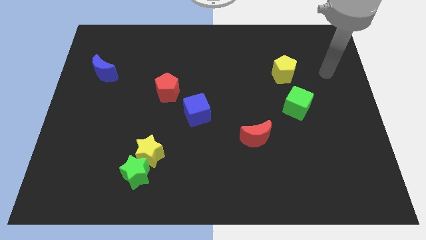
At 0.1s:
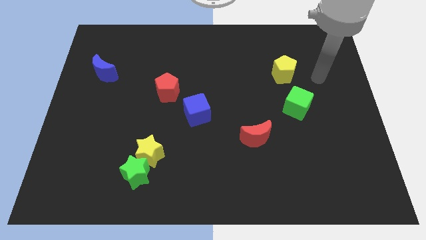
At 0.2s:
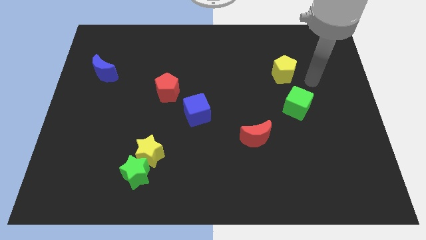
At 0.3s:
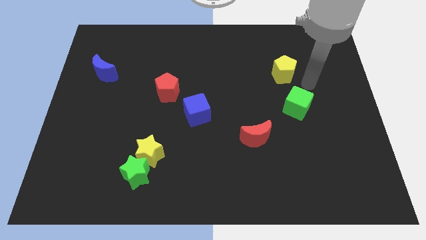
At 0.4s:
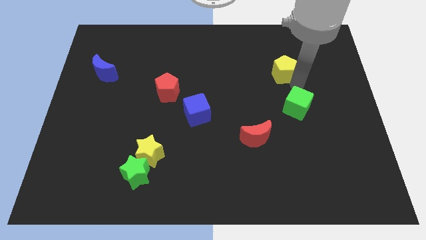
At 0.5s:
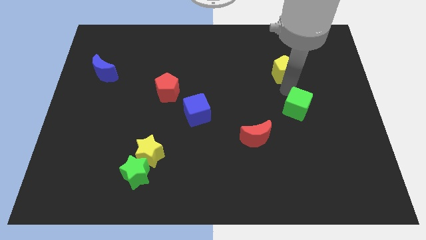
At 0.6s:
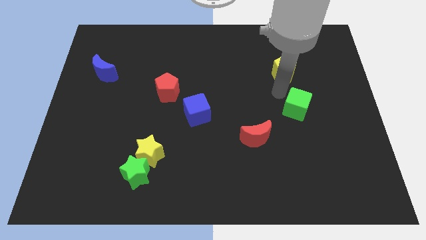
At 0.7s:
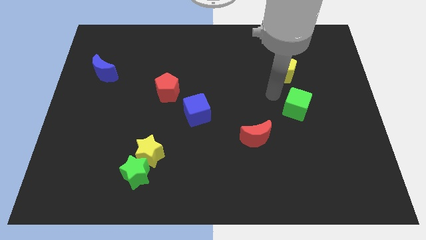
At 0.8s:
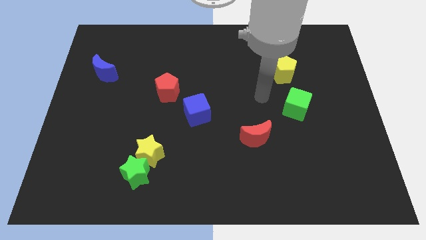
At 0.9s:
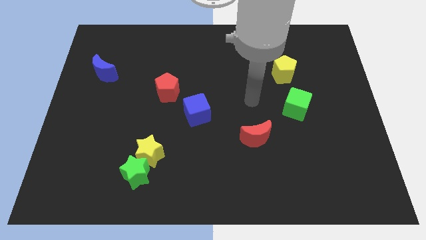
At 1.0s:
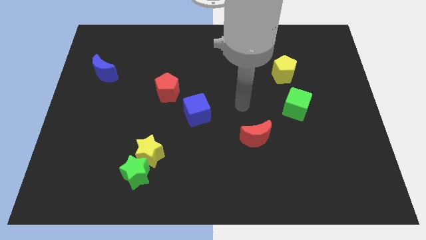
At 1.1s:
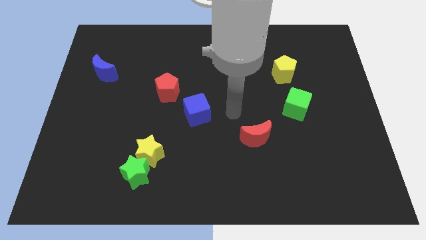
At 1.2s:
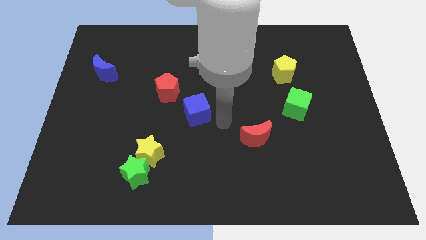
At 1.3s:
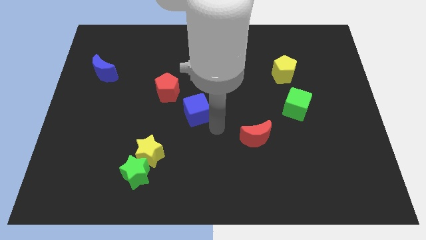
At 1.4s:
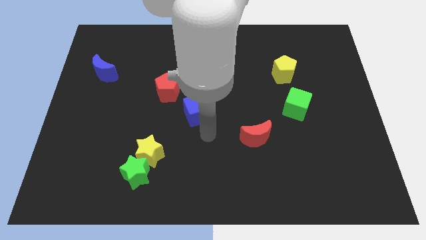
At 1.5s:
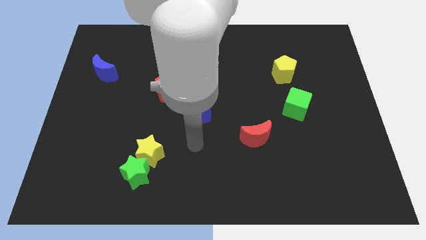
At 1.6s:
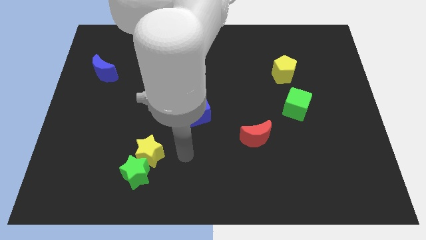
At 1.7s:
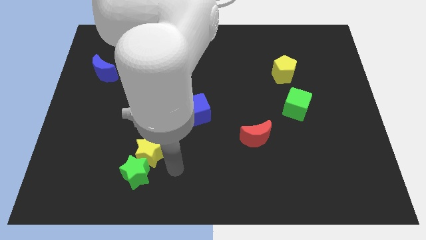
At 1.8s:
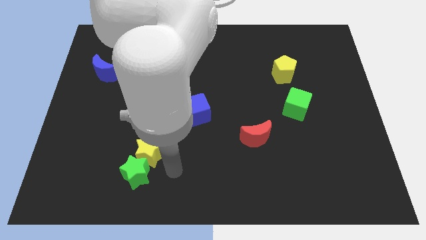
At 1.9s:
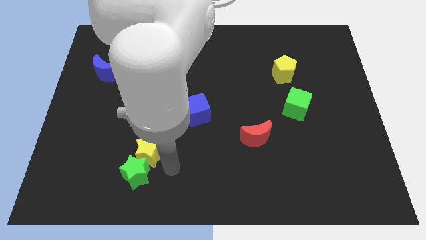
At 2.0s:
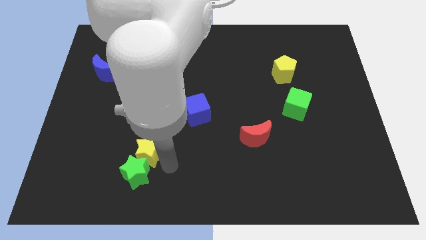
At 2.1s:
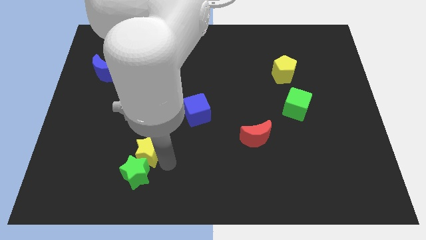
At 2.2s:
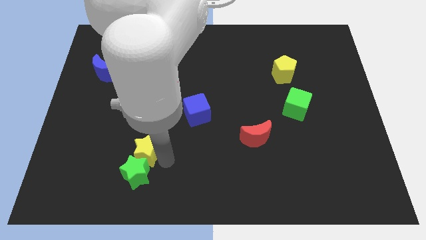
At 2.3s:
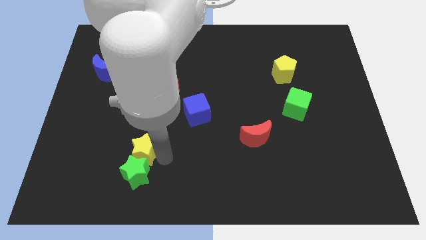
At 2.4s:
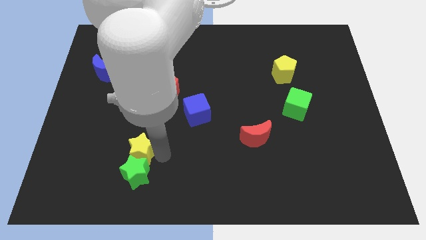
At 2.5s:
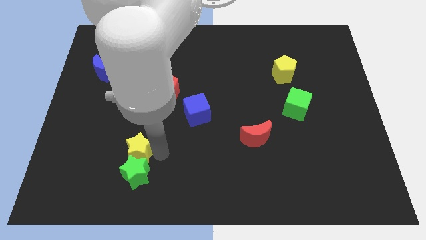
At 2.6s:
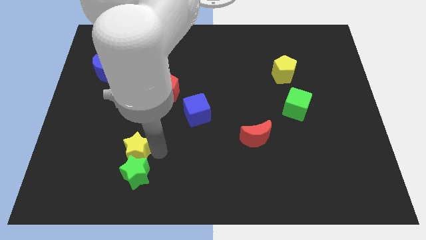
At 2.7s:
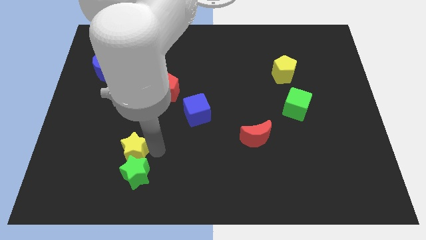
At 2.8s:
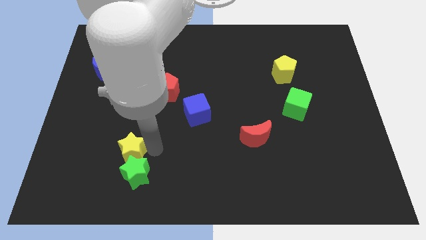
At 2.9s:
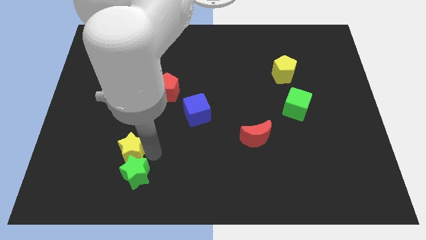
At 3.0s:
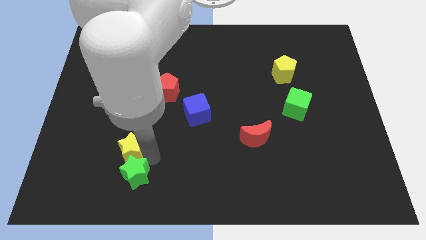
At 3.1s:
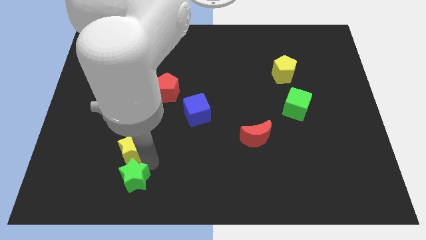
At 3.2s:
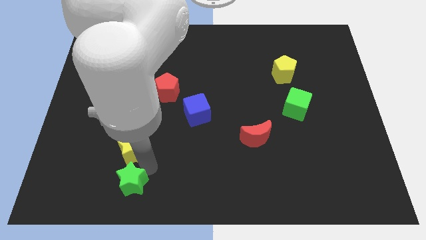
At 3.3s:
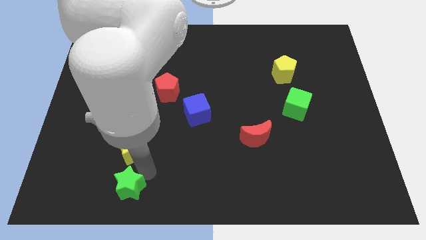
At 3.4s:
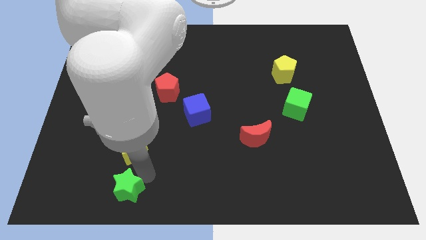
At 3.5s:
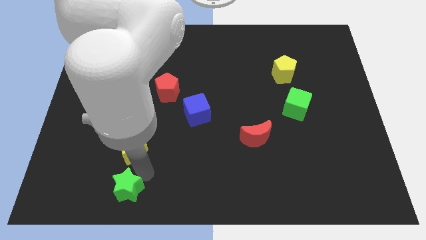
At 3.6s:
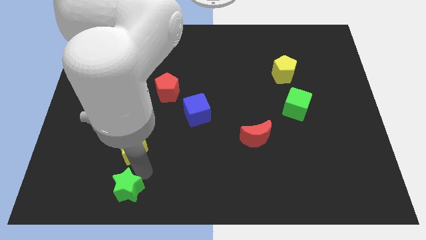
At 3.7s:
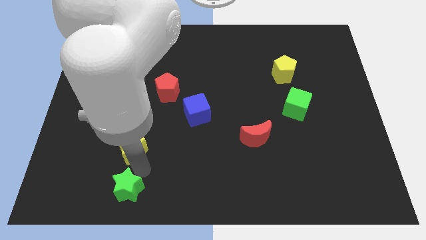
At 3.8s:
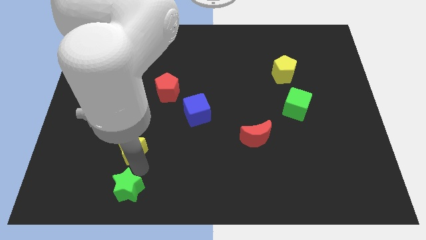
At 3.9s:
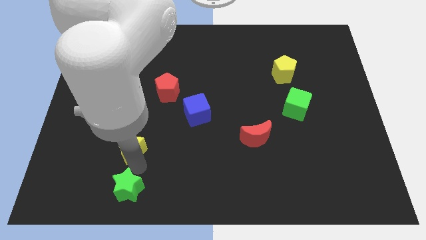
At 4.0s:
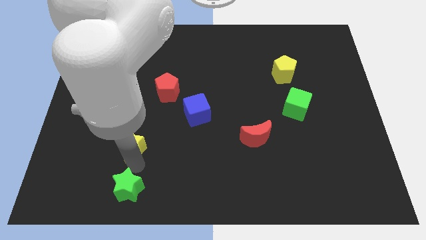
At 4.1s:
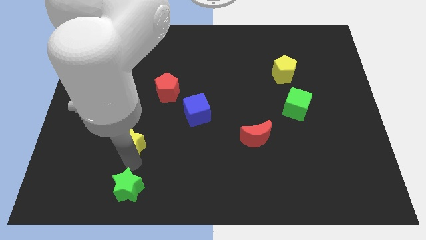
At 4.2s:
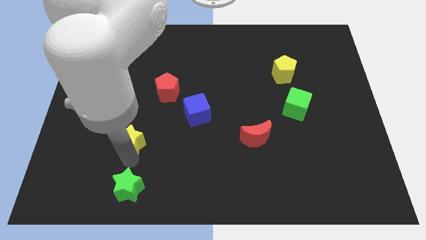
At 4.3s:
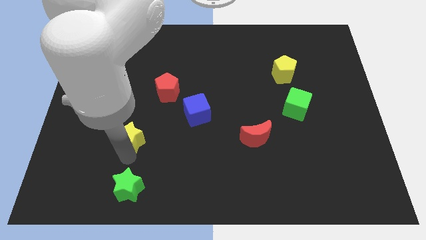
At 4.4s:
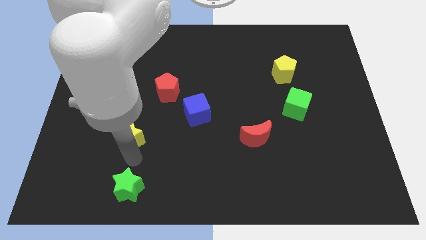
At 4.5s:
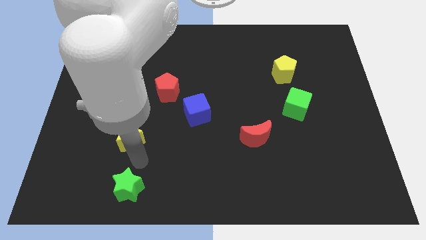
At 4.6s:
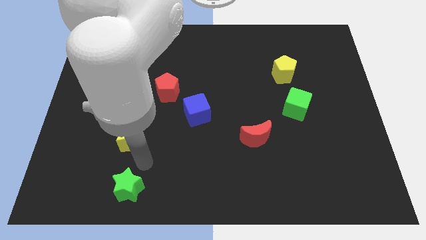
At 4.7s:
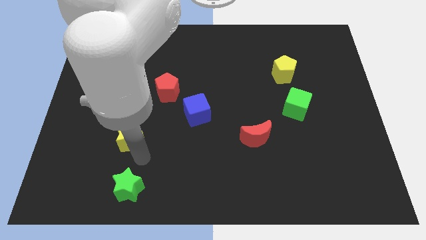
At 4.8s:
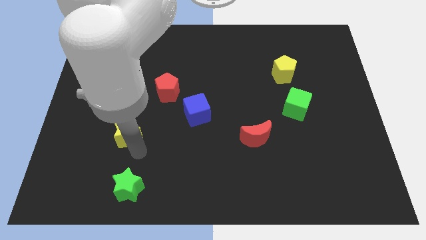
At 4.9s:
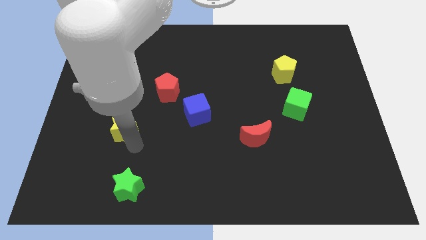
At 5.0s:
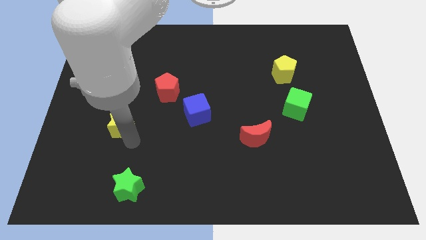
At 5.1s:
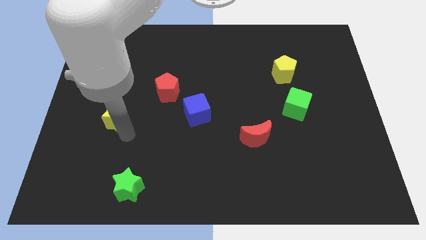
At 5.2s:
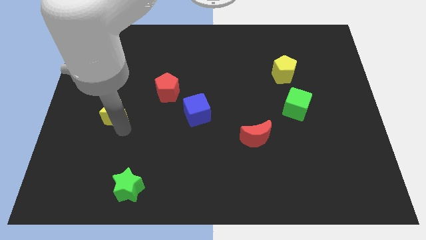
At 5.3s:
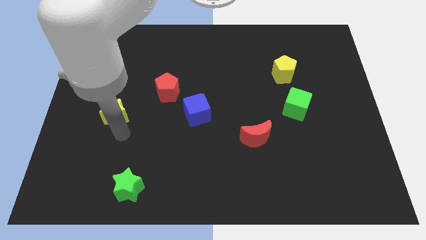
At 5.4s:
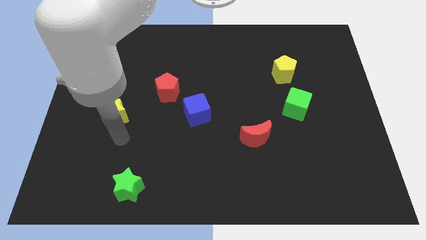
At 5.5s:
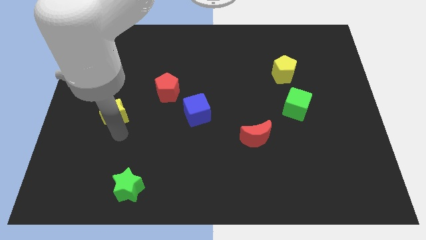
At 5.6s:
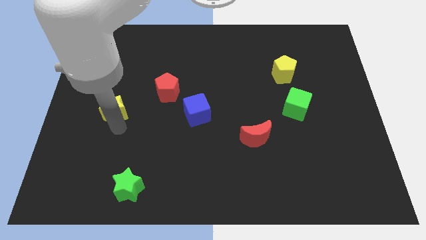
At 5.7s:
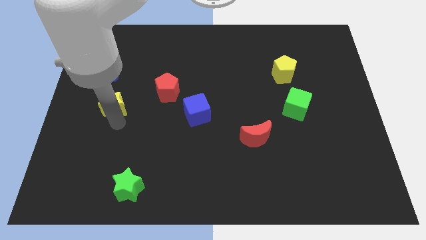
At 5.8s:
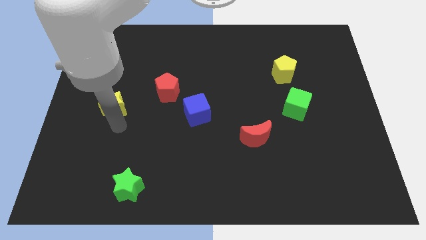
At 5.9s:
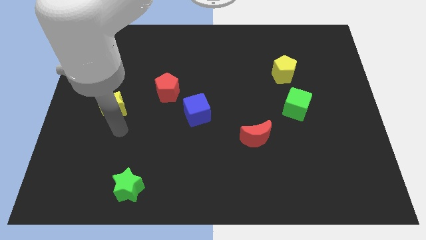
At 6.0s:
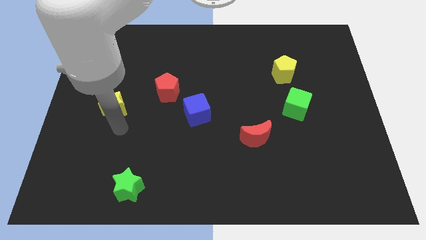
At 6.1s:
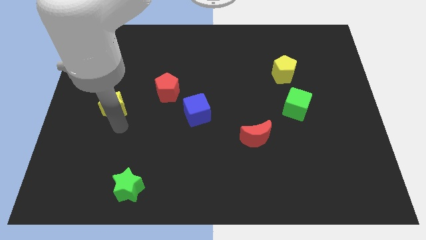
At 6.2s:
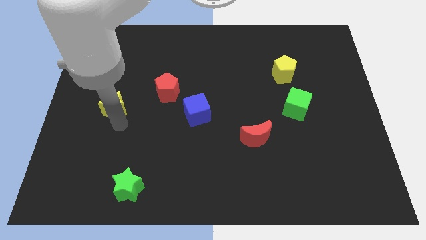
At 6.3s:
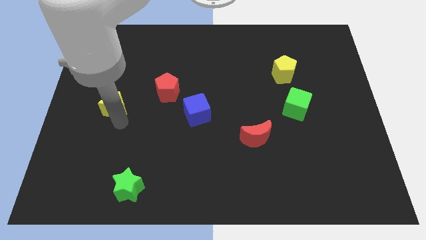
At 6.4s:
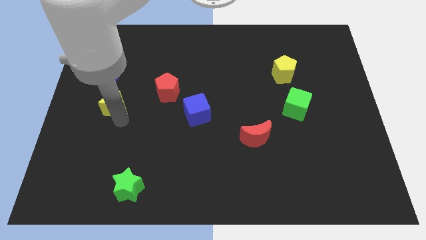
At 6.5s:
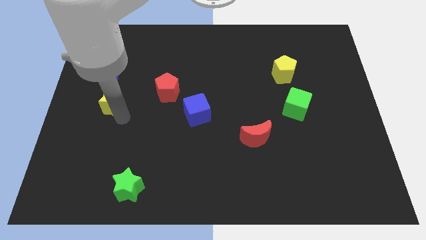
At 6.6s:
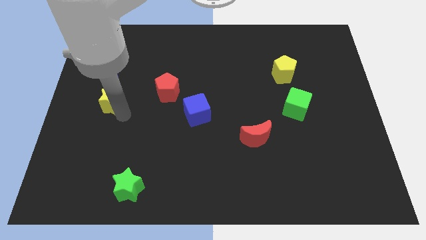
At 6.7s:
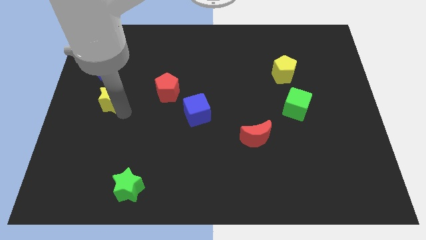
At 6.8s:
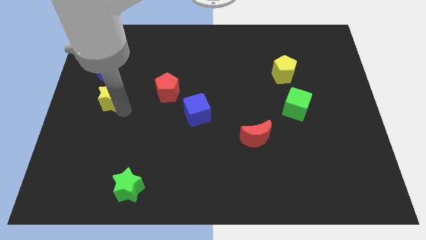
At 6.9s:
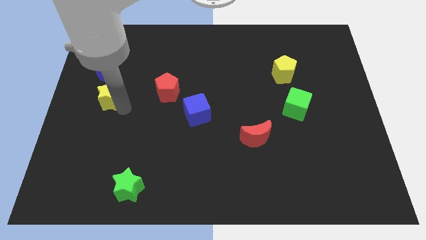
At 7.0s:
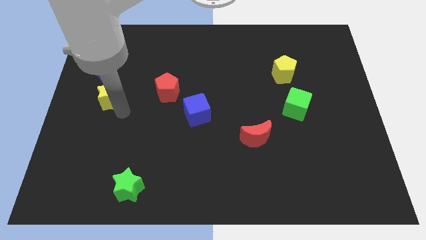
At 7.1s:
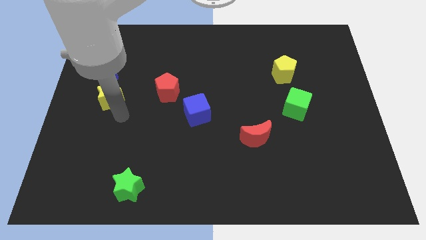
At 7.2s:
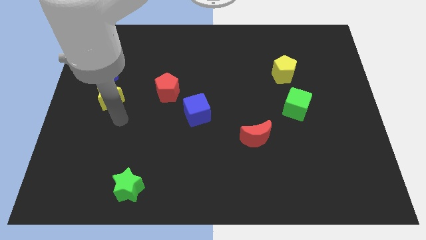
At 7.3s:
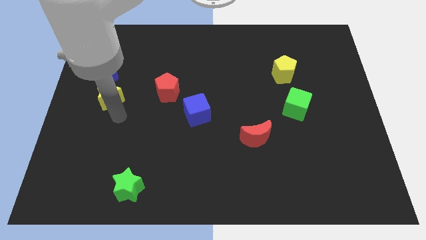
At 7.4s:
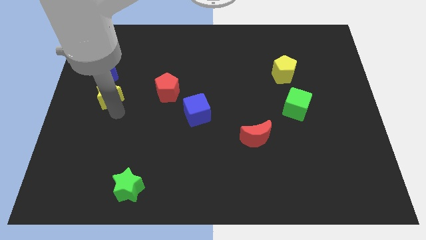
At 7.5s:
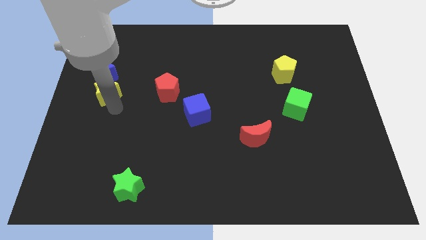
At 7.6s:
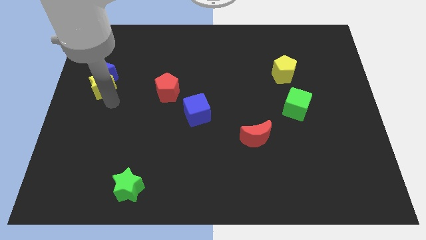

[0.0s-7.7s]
slide the yellow star next to the blue moon
